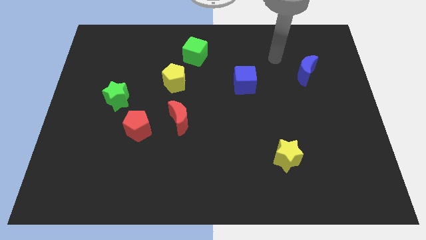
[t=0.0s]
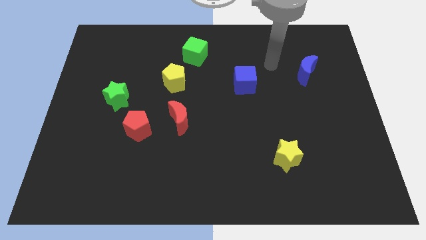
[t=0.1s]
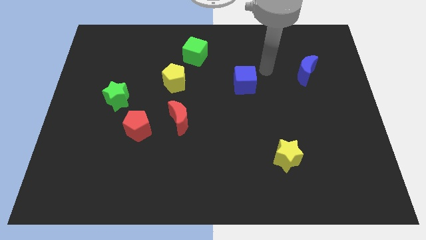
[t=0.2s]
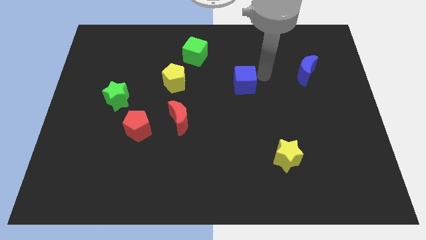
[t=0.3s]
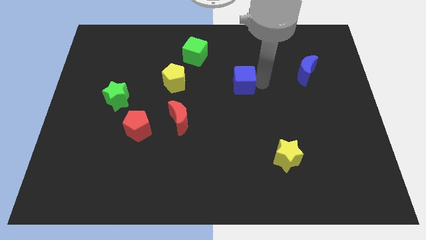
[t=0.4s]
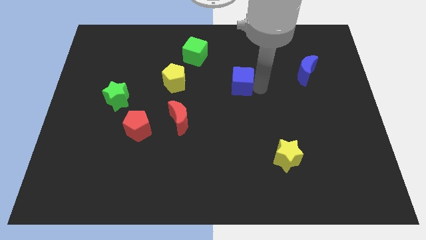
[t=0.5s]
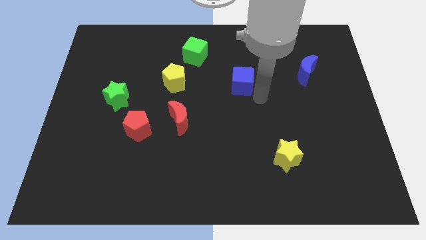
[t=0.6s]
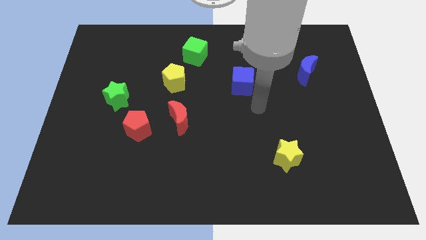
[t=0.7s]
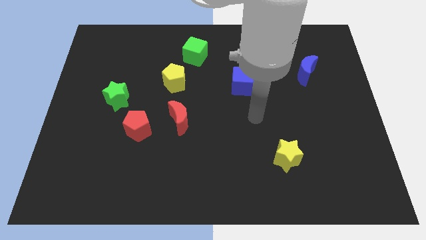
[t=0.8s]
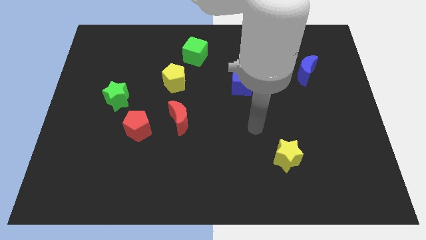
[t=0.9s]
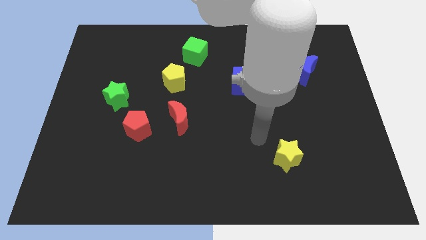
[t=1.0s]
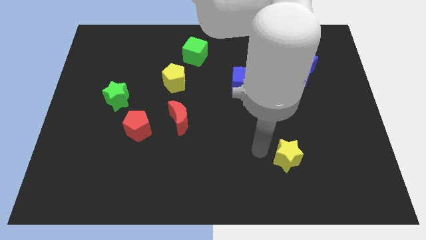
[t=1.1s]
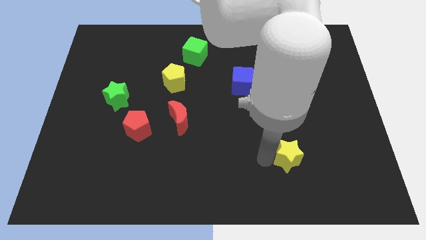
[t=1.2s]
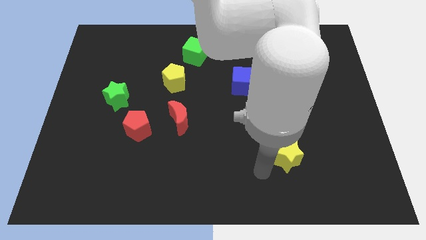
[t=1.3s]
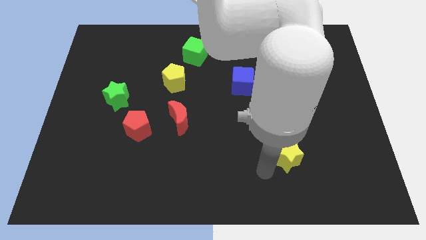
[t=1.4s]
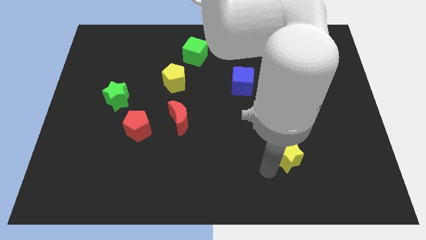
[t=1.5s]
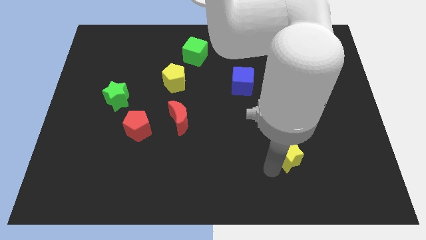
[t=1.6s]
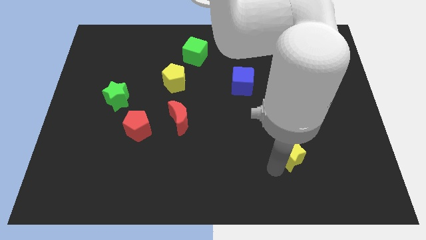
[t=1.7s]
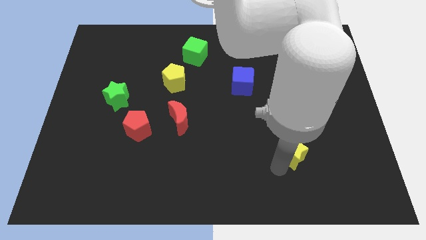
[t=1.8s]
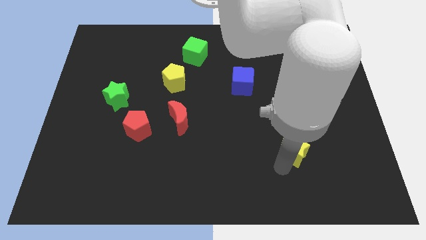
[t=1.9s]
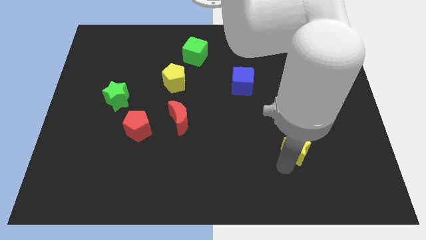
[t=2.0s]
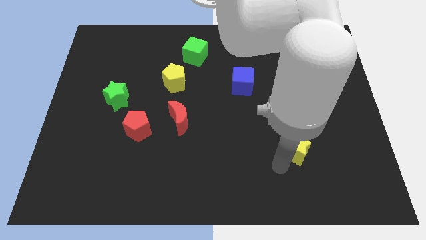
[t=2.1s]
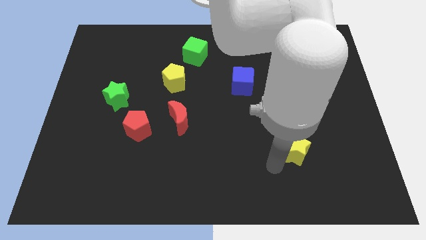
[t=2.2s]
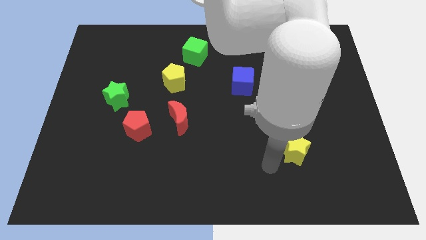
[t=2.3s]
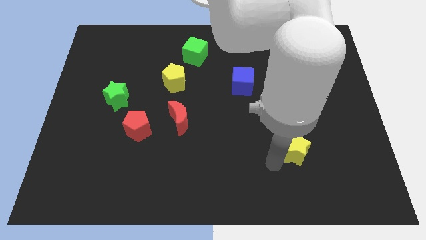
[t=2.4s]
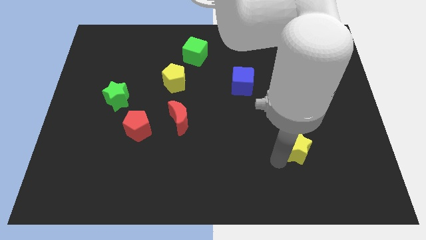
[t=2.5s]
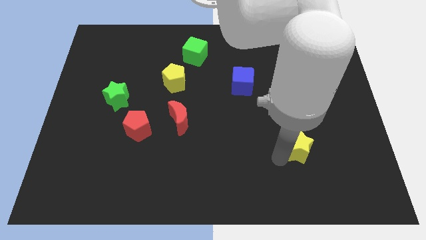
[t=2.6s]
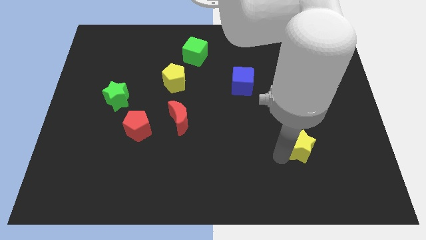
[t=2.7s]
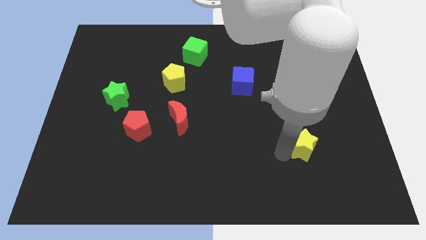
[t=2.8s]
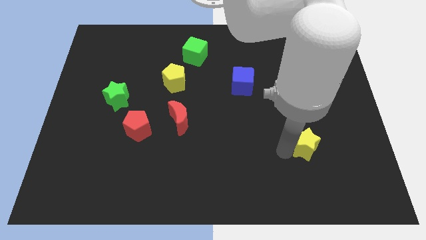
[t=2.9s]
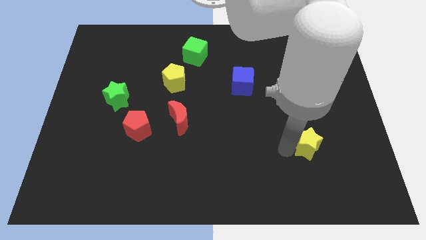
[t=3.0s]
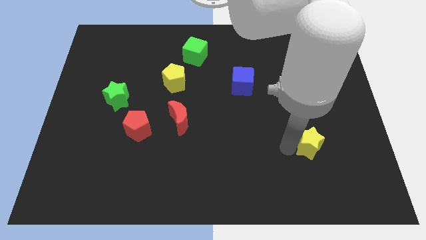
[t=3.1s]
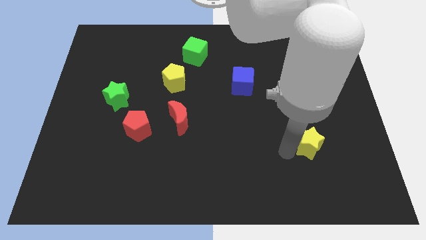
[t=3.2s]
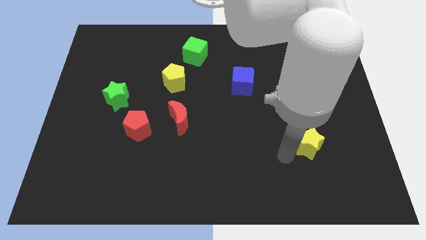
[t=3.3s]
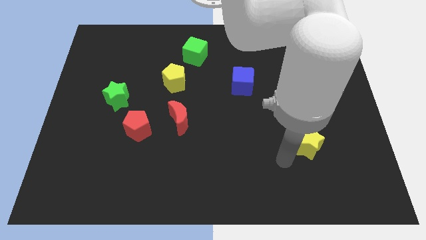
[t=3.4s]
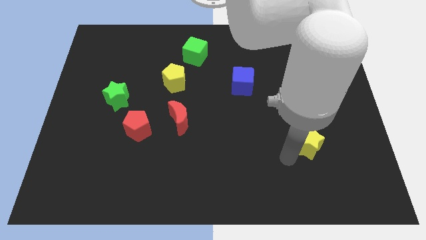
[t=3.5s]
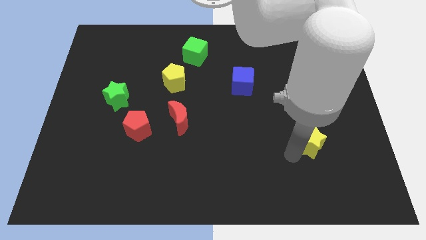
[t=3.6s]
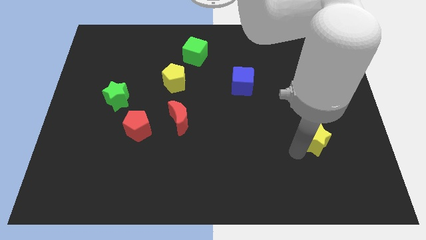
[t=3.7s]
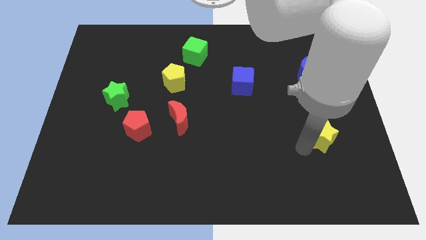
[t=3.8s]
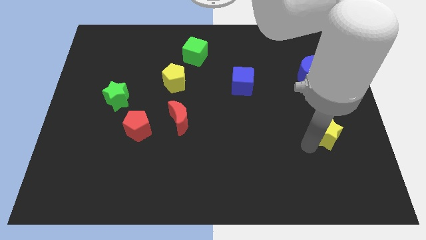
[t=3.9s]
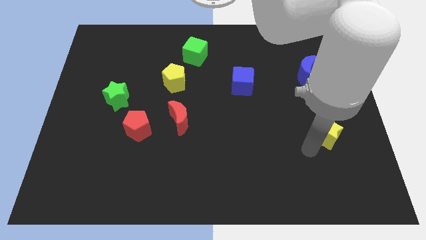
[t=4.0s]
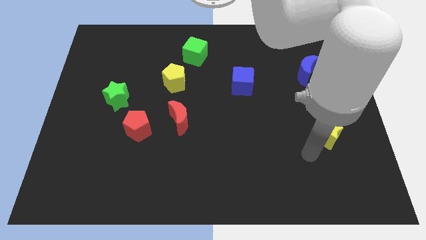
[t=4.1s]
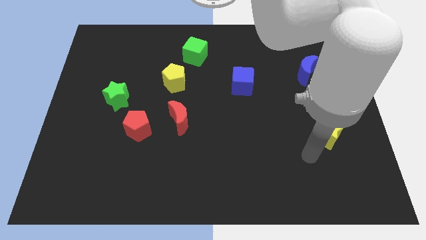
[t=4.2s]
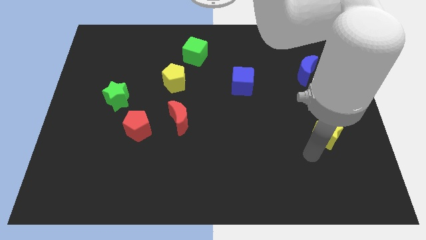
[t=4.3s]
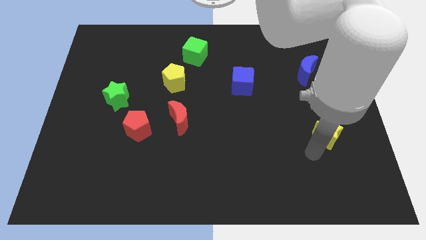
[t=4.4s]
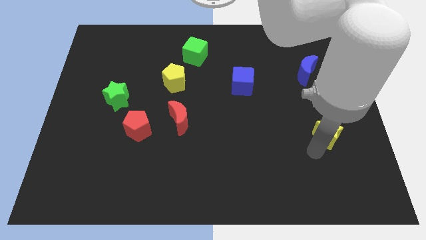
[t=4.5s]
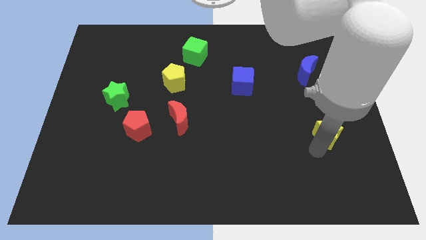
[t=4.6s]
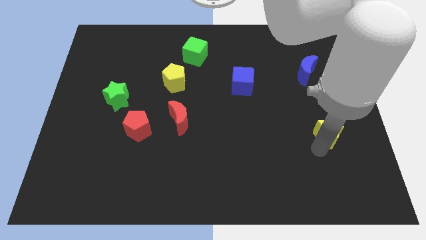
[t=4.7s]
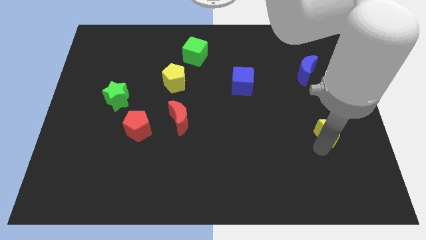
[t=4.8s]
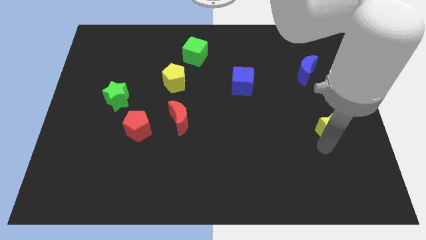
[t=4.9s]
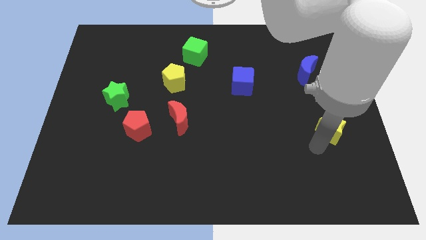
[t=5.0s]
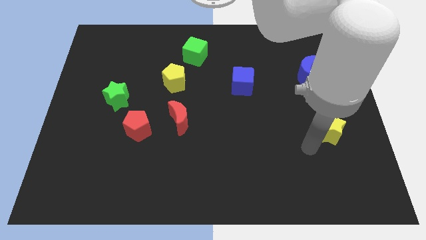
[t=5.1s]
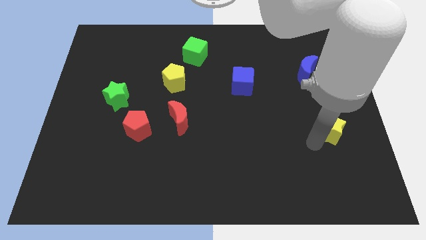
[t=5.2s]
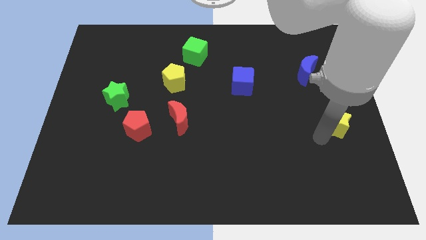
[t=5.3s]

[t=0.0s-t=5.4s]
move the yellow star to the center right
